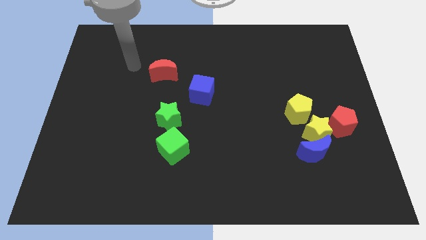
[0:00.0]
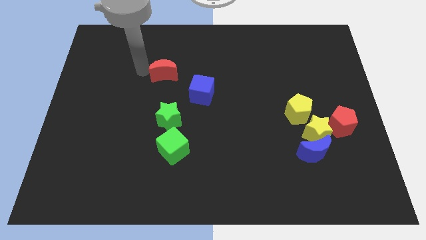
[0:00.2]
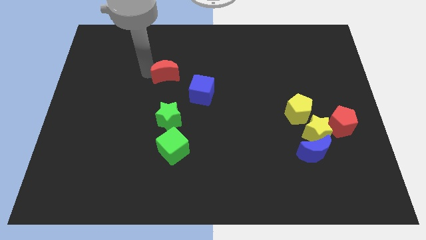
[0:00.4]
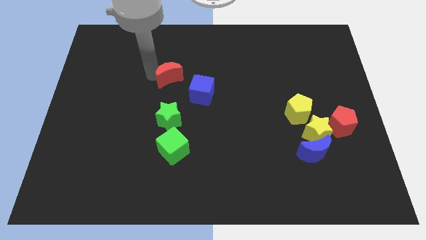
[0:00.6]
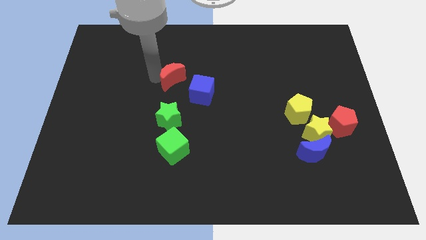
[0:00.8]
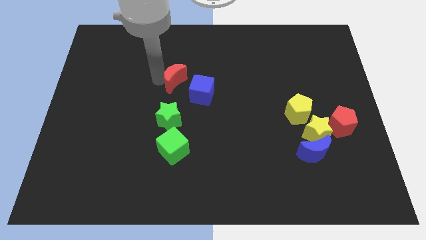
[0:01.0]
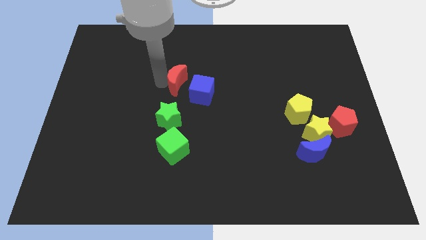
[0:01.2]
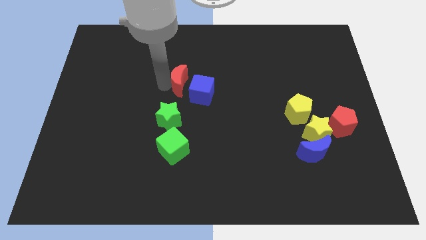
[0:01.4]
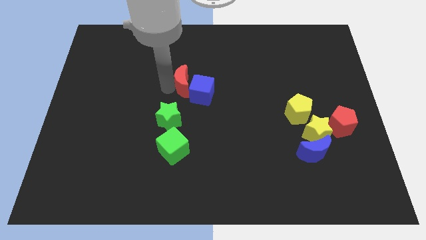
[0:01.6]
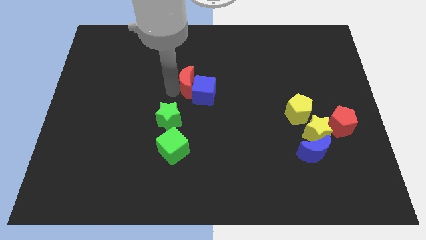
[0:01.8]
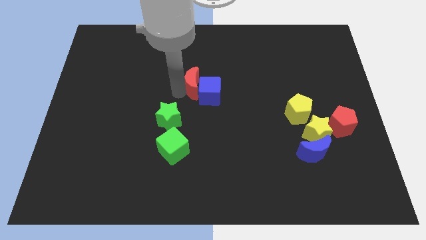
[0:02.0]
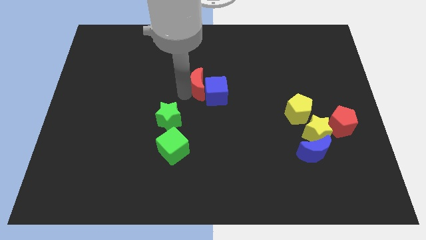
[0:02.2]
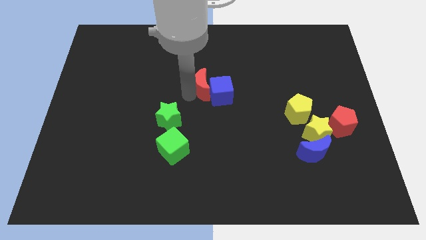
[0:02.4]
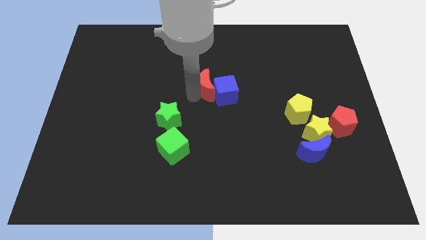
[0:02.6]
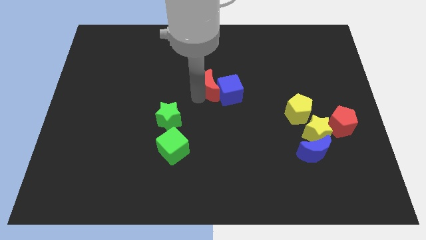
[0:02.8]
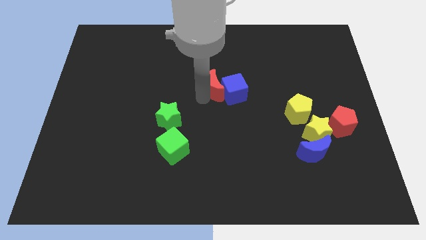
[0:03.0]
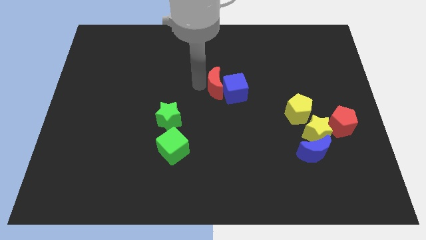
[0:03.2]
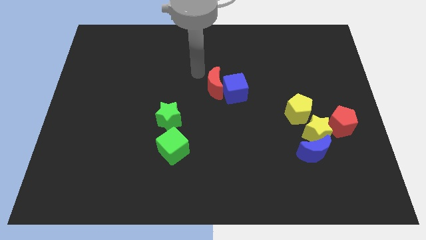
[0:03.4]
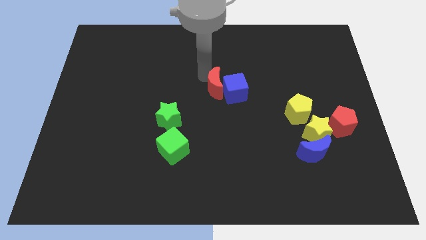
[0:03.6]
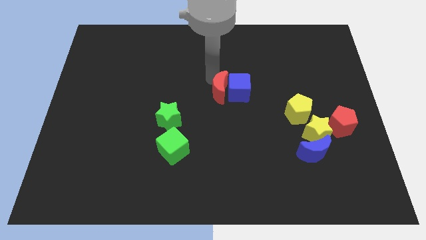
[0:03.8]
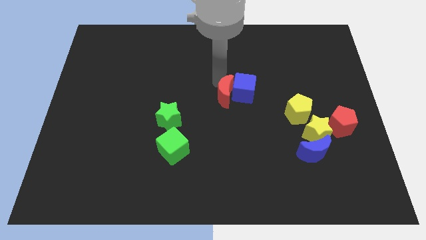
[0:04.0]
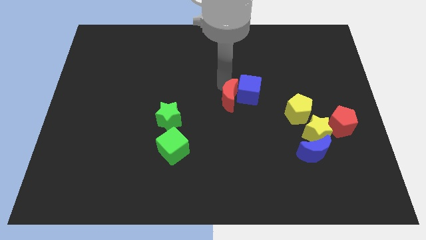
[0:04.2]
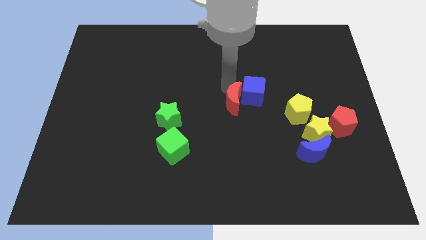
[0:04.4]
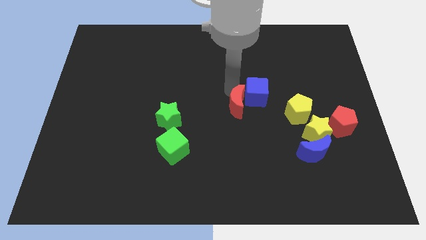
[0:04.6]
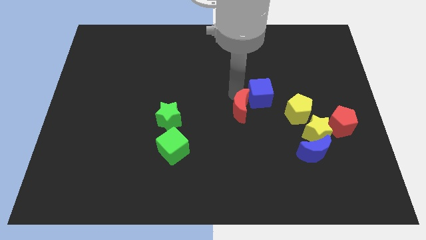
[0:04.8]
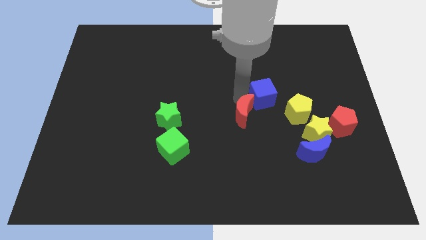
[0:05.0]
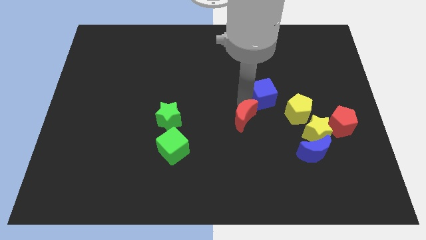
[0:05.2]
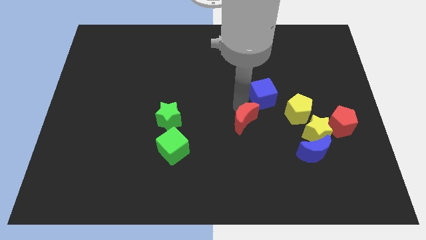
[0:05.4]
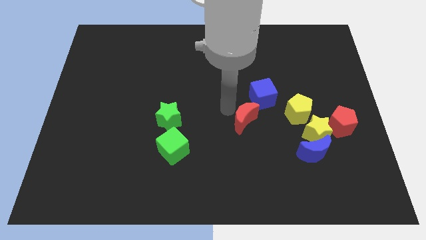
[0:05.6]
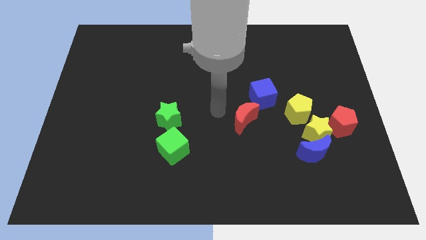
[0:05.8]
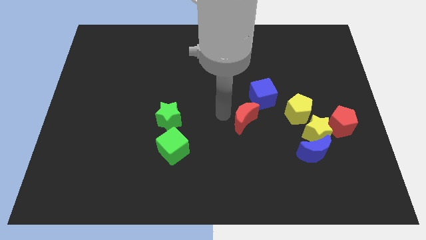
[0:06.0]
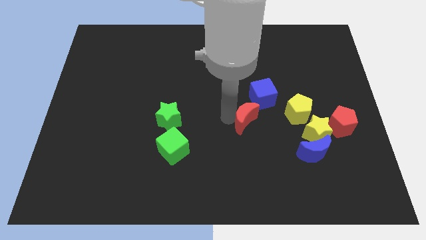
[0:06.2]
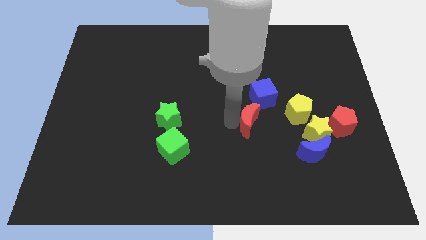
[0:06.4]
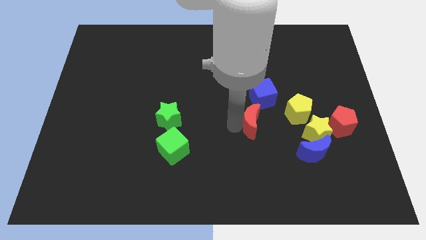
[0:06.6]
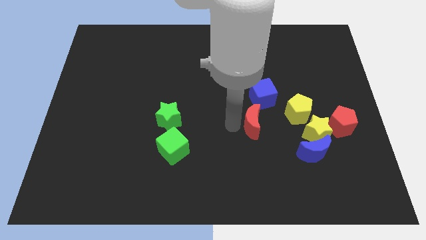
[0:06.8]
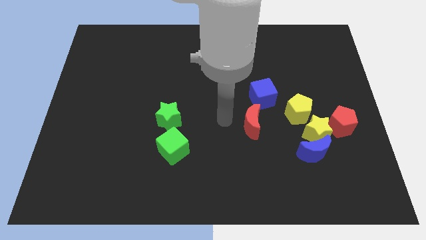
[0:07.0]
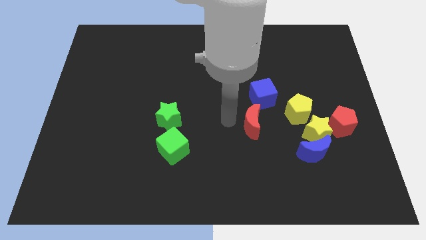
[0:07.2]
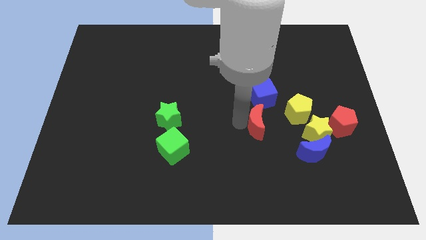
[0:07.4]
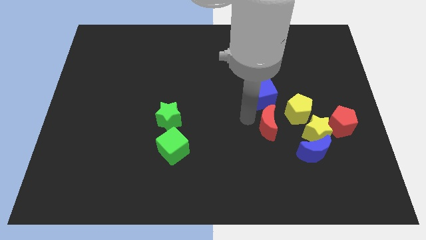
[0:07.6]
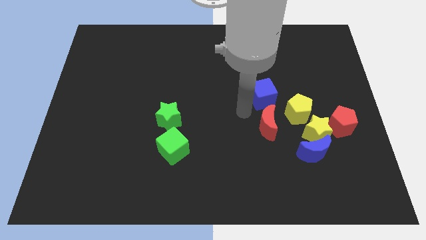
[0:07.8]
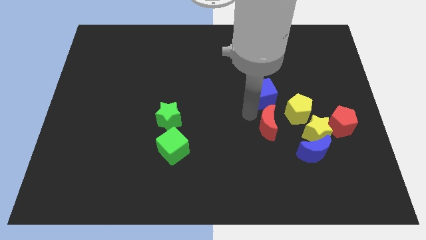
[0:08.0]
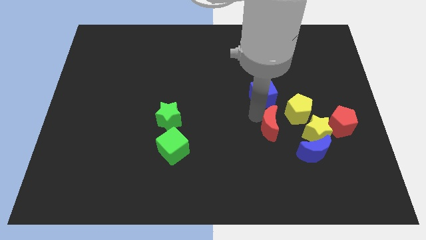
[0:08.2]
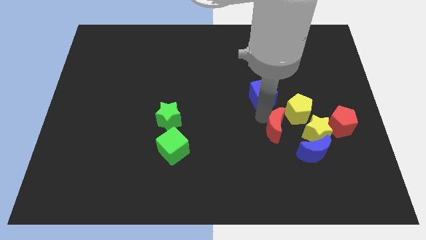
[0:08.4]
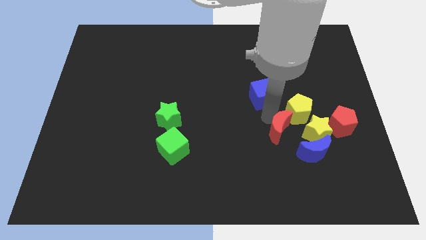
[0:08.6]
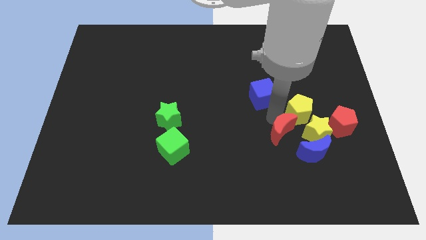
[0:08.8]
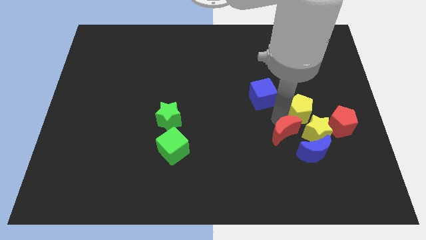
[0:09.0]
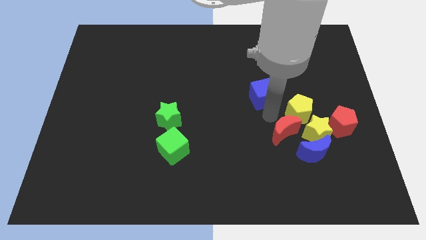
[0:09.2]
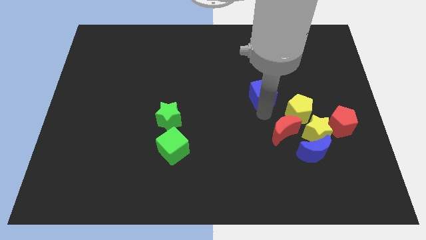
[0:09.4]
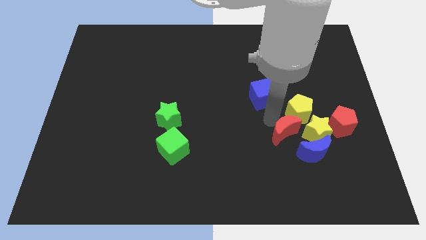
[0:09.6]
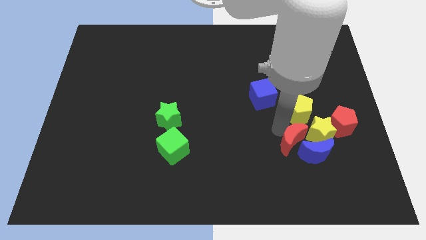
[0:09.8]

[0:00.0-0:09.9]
push the red moon next to the blue moon

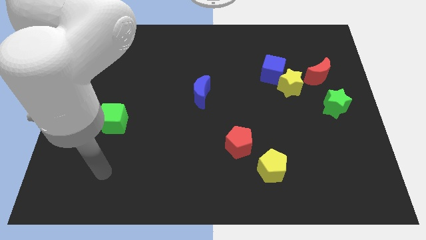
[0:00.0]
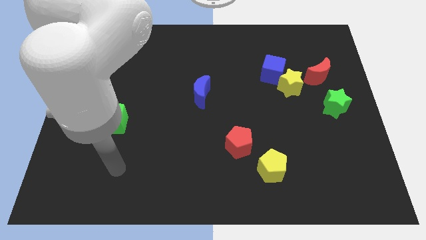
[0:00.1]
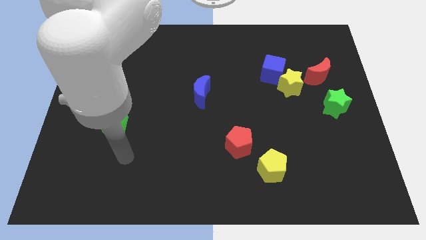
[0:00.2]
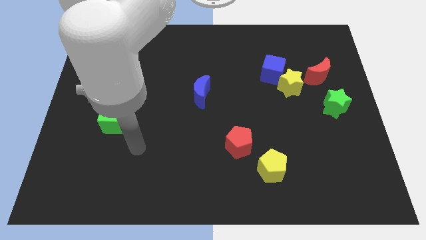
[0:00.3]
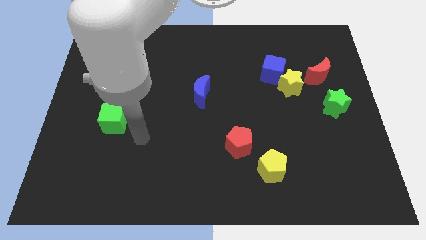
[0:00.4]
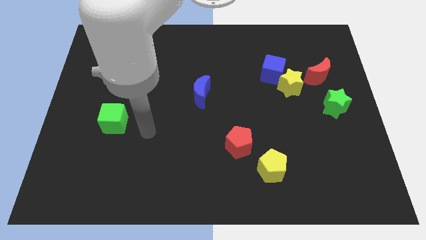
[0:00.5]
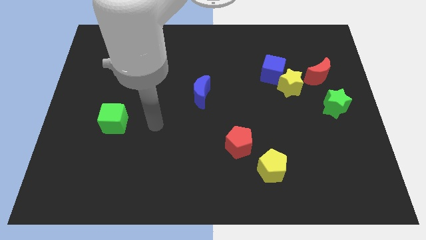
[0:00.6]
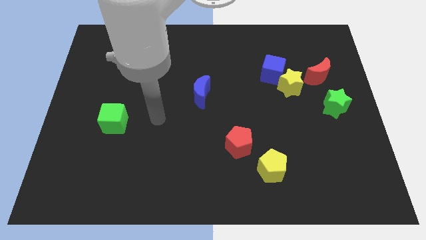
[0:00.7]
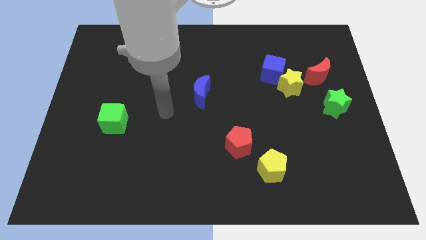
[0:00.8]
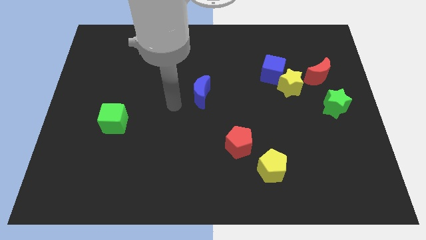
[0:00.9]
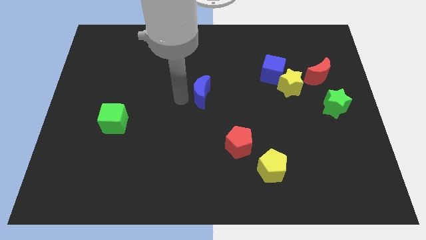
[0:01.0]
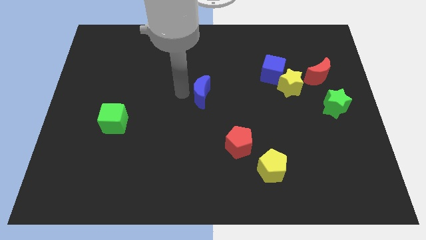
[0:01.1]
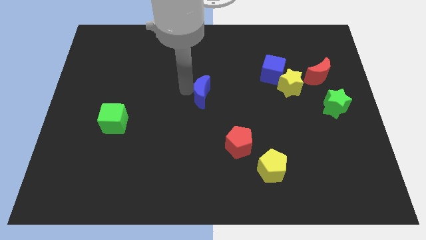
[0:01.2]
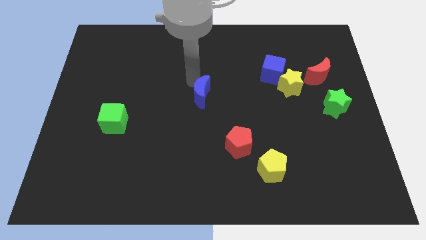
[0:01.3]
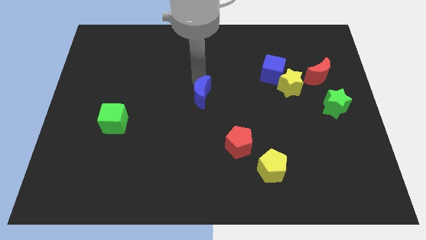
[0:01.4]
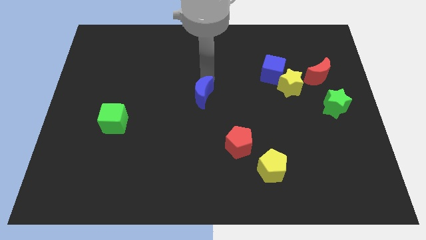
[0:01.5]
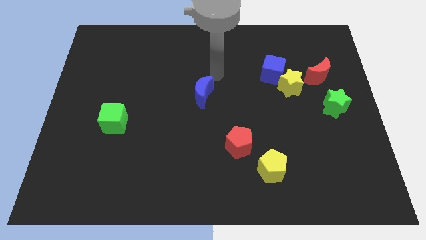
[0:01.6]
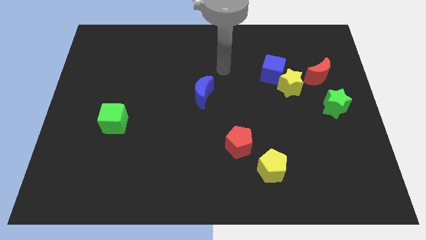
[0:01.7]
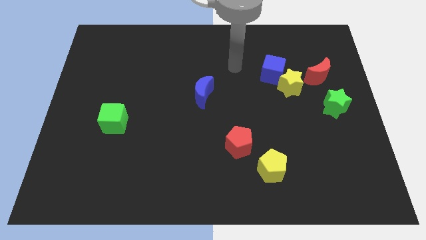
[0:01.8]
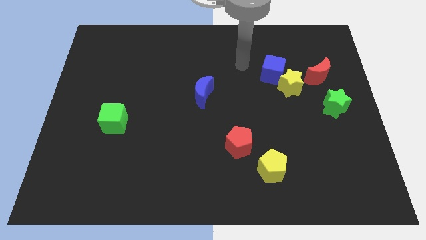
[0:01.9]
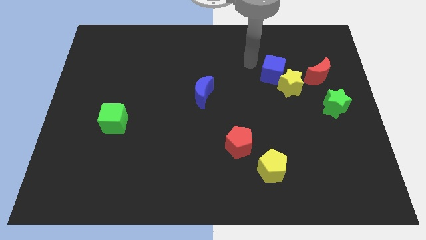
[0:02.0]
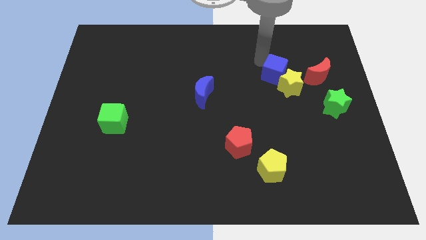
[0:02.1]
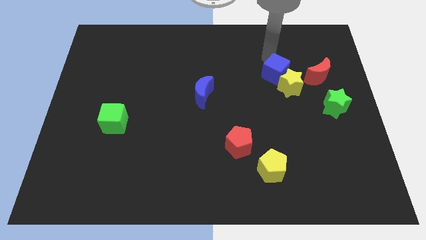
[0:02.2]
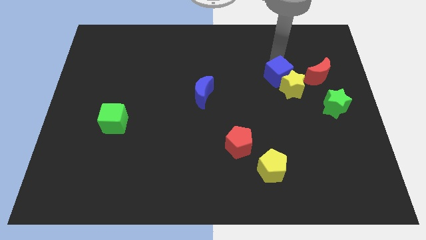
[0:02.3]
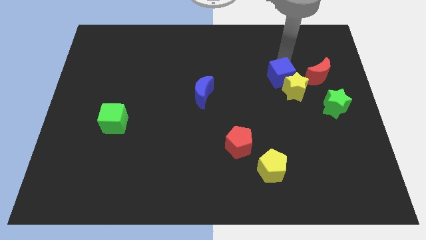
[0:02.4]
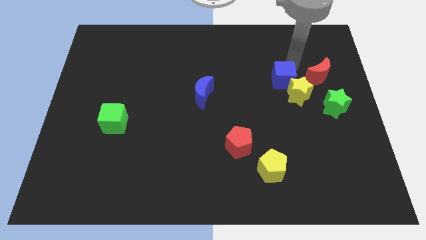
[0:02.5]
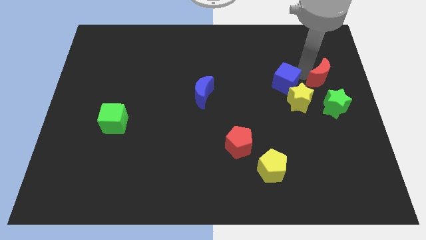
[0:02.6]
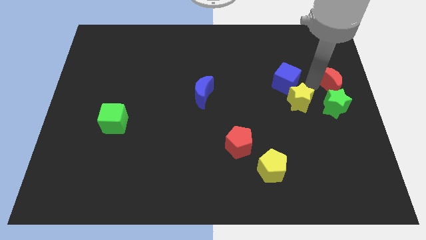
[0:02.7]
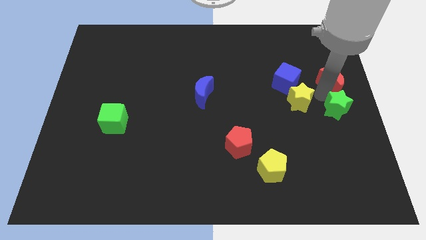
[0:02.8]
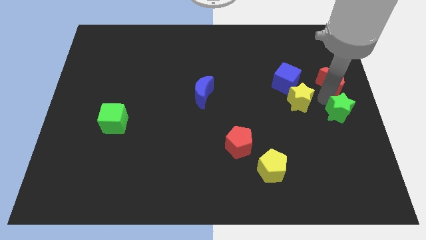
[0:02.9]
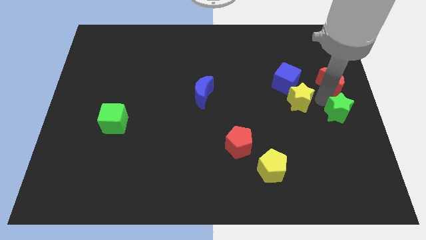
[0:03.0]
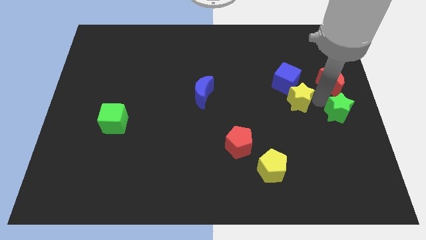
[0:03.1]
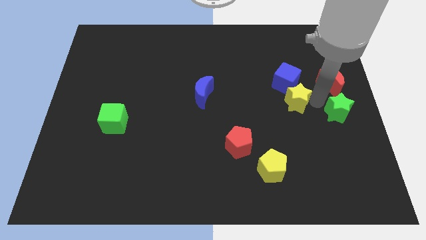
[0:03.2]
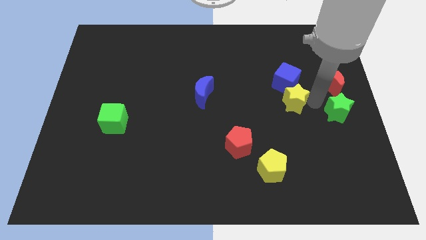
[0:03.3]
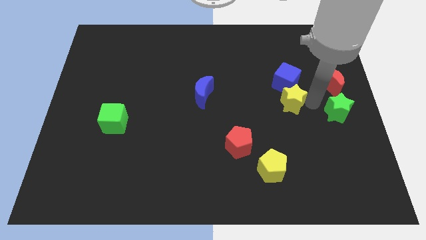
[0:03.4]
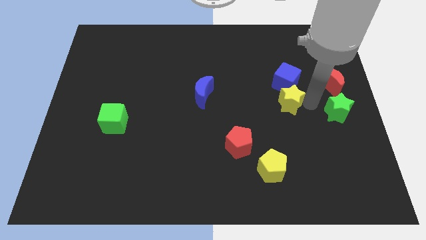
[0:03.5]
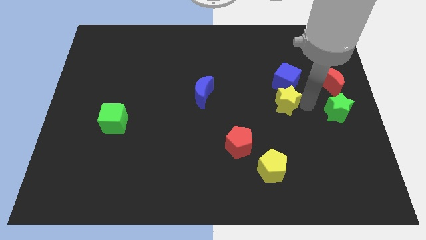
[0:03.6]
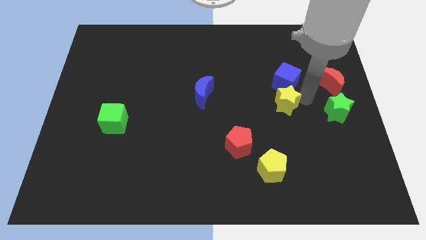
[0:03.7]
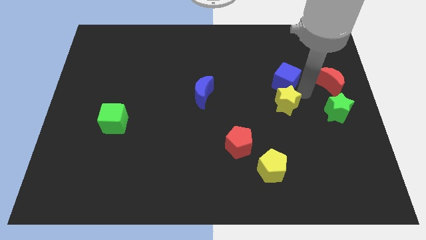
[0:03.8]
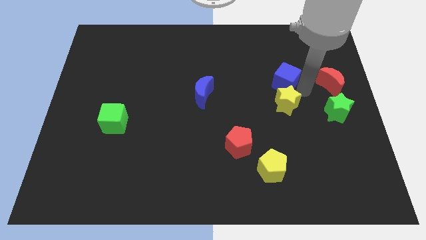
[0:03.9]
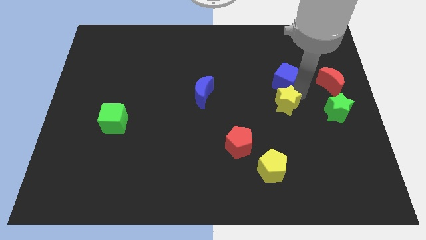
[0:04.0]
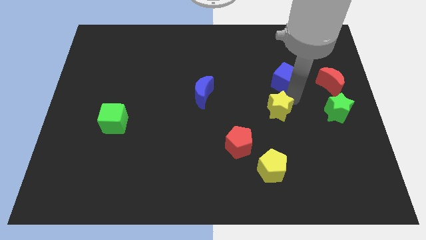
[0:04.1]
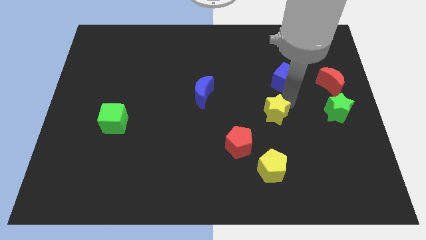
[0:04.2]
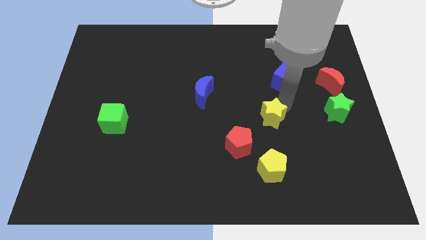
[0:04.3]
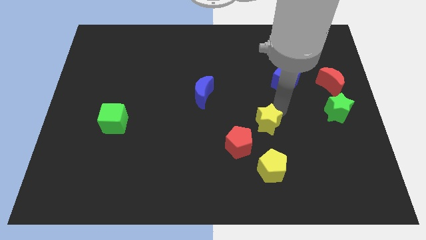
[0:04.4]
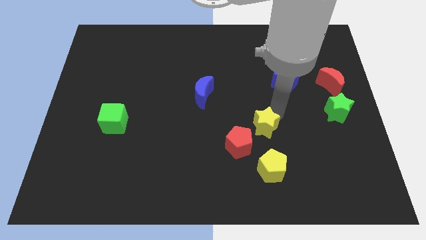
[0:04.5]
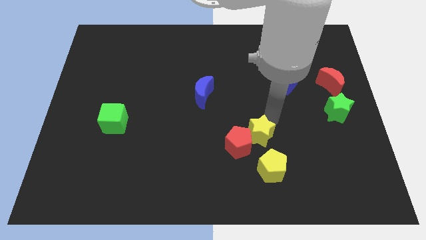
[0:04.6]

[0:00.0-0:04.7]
slide the yellow star towards the red pentagon
